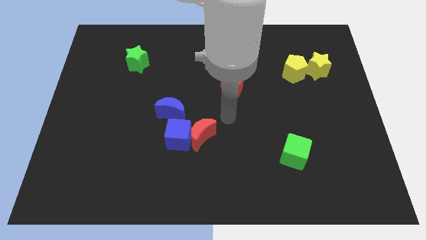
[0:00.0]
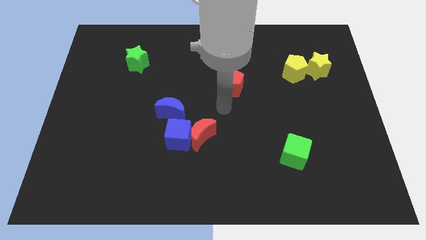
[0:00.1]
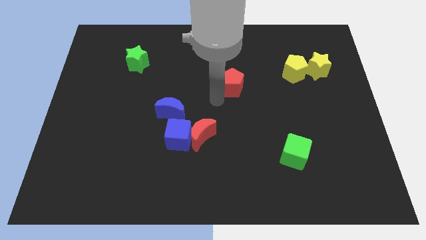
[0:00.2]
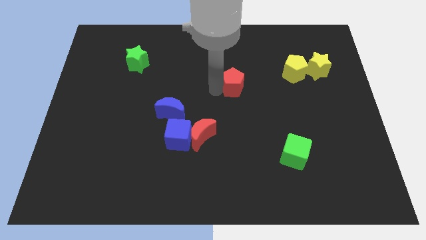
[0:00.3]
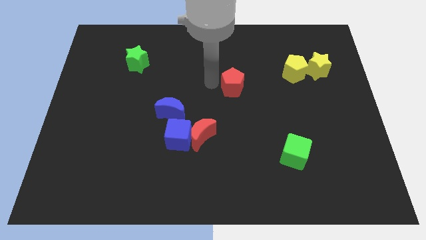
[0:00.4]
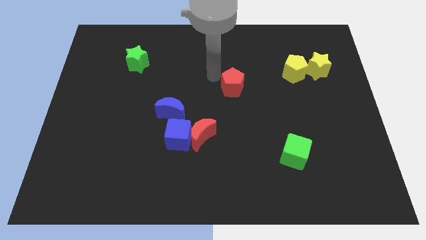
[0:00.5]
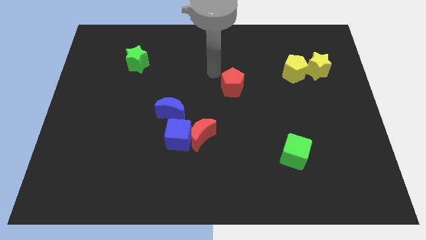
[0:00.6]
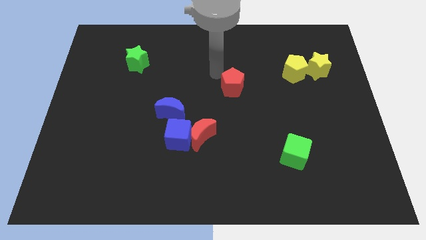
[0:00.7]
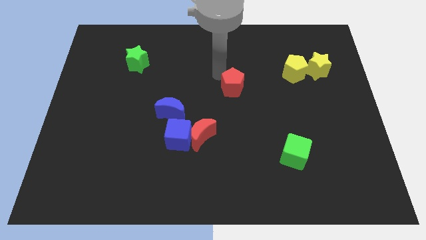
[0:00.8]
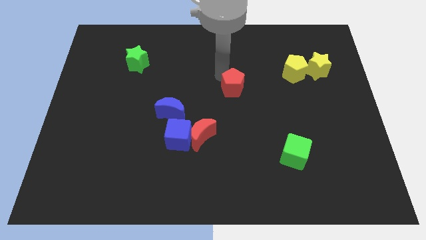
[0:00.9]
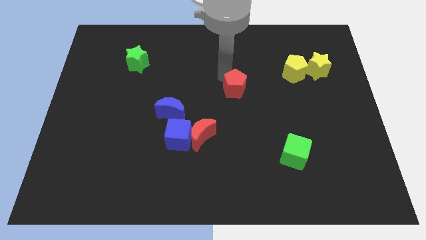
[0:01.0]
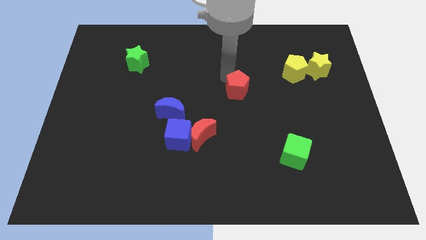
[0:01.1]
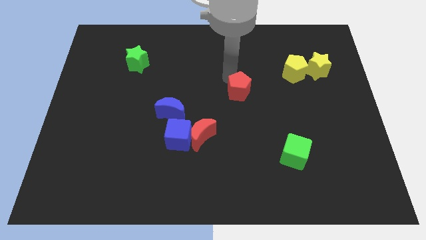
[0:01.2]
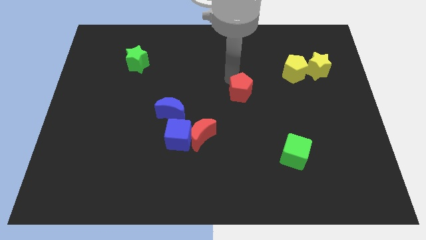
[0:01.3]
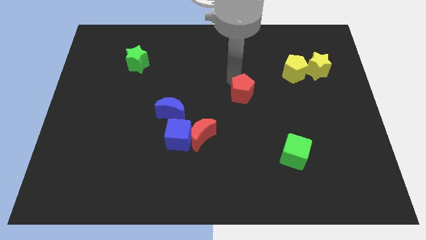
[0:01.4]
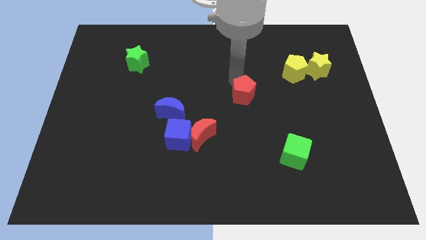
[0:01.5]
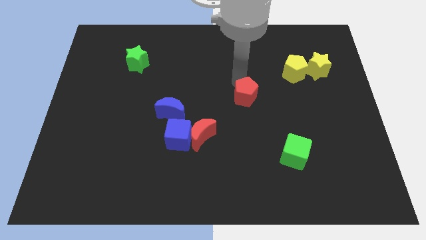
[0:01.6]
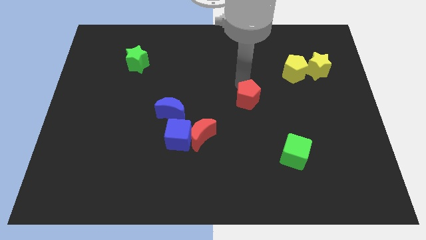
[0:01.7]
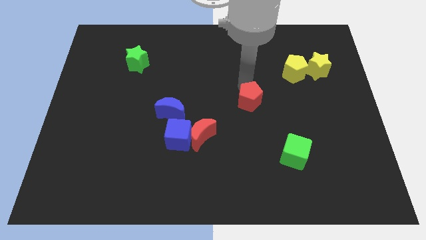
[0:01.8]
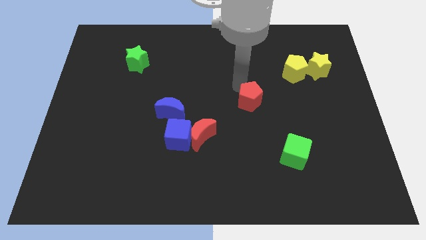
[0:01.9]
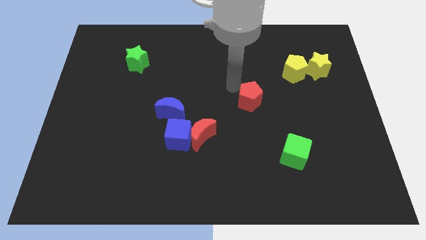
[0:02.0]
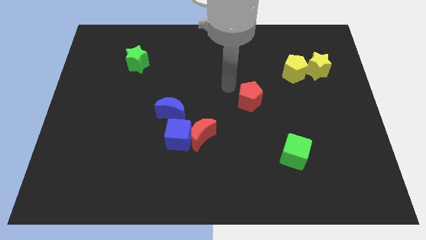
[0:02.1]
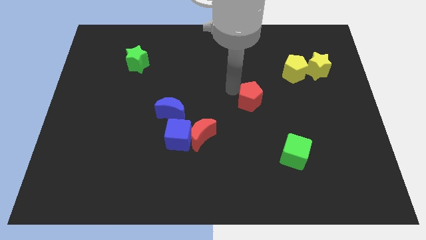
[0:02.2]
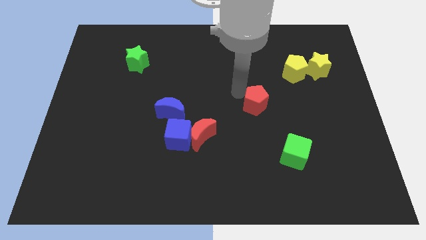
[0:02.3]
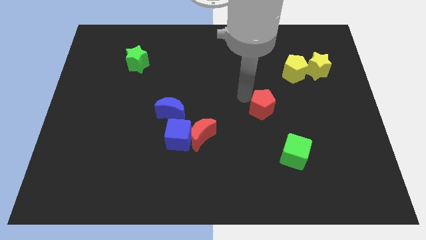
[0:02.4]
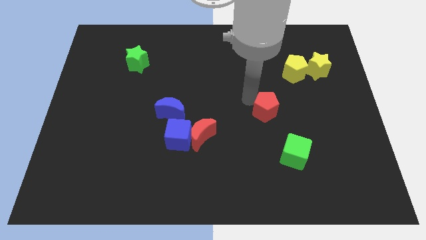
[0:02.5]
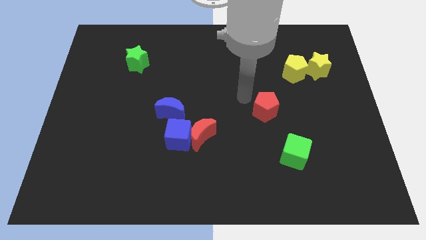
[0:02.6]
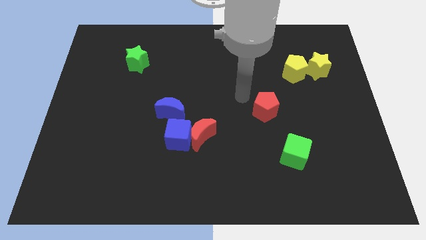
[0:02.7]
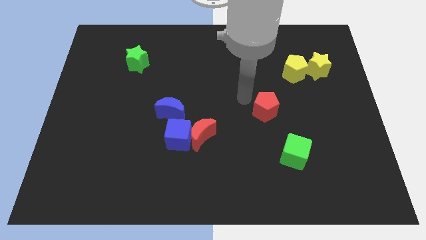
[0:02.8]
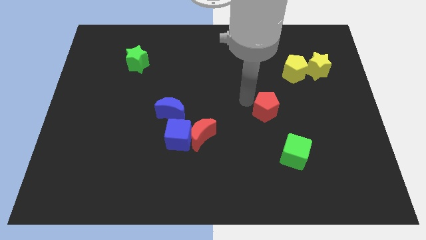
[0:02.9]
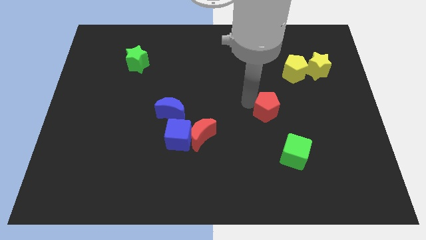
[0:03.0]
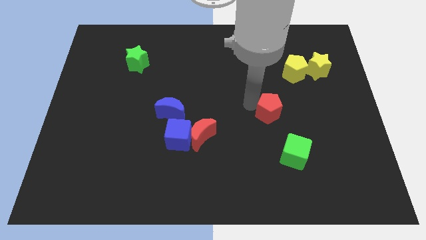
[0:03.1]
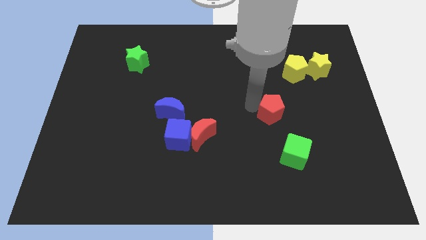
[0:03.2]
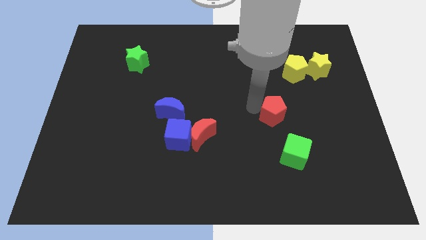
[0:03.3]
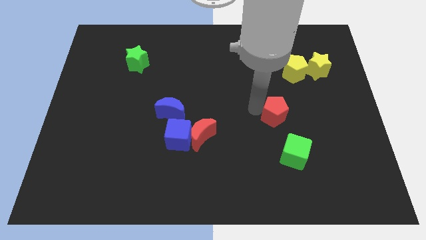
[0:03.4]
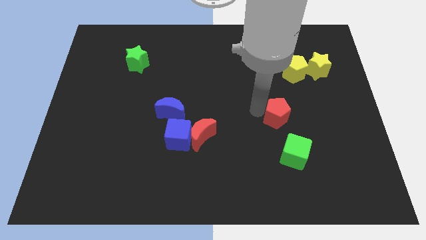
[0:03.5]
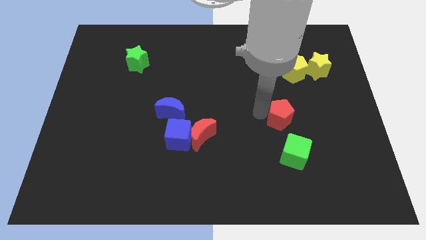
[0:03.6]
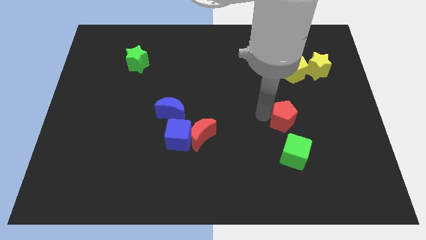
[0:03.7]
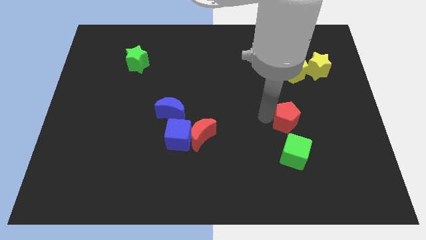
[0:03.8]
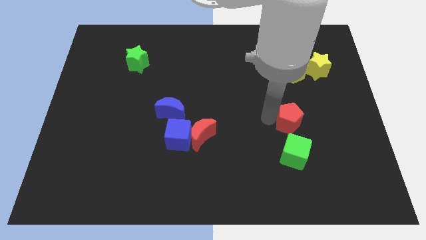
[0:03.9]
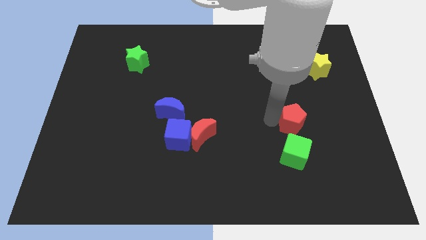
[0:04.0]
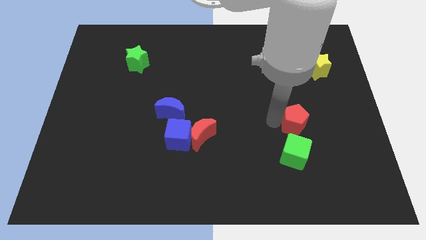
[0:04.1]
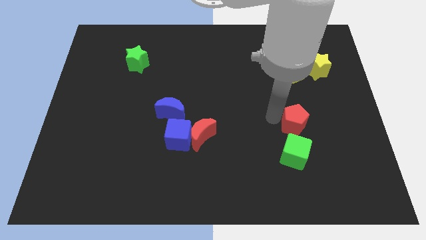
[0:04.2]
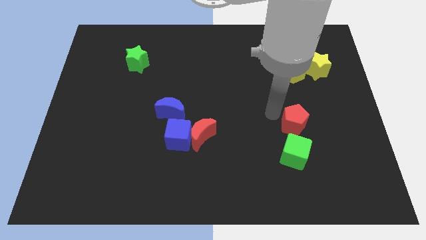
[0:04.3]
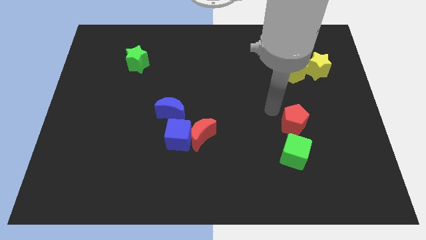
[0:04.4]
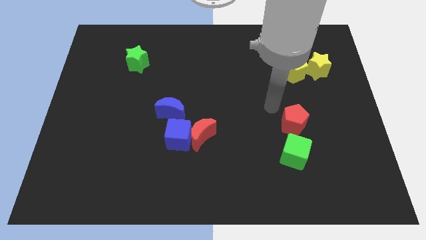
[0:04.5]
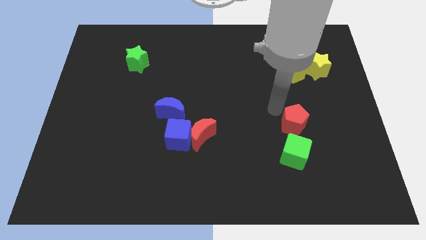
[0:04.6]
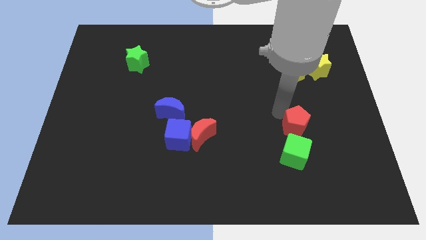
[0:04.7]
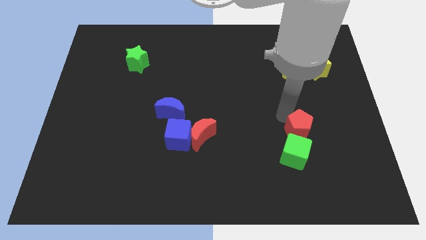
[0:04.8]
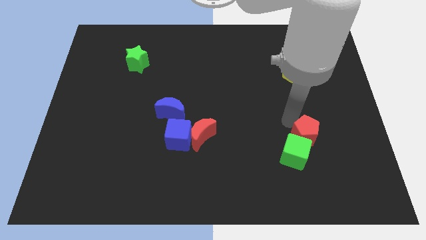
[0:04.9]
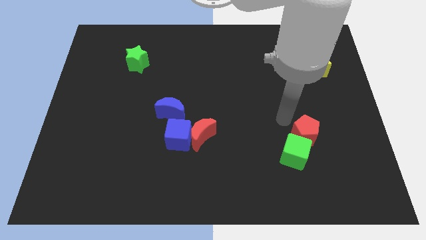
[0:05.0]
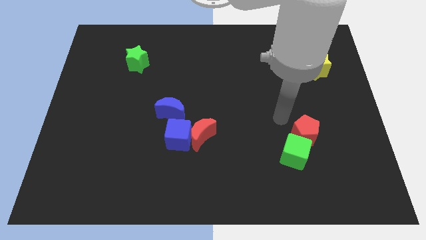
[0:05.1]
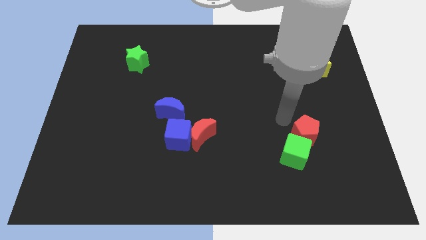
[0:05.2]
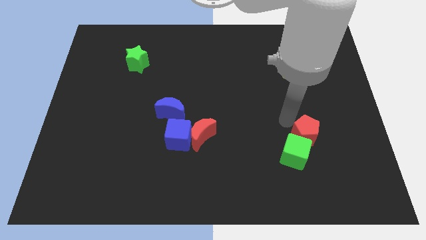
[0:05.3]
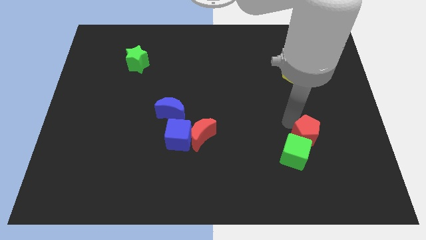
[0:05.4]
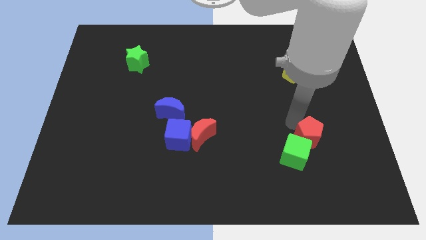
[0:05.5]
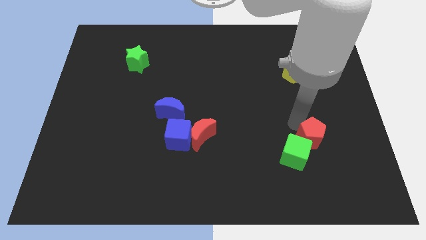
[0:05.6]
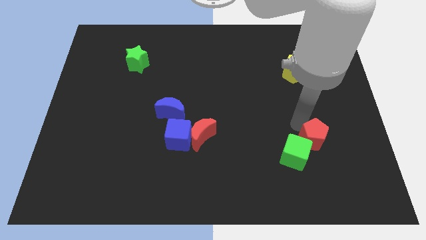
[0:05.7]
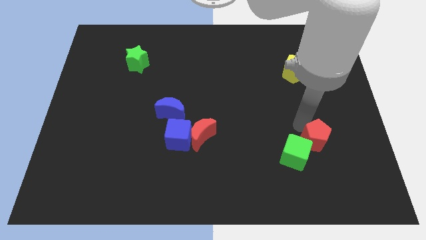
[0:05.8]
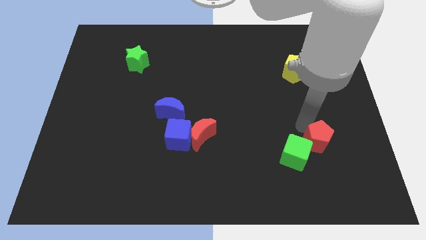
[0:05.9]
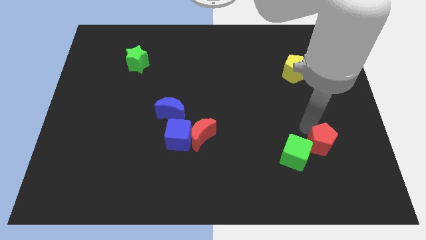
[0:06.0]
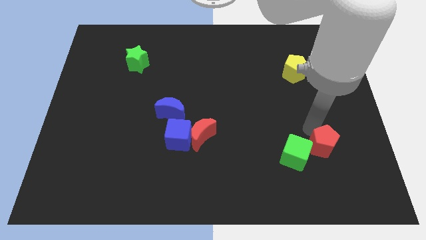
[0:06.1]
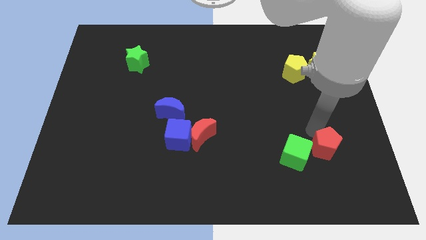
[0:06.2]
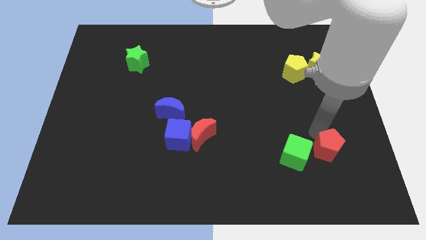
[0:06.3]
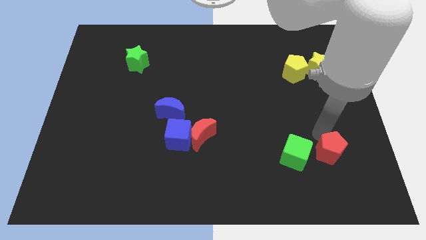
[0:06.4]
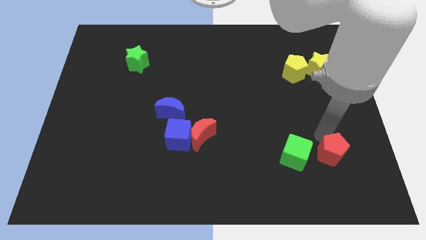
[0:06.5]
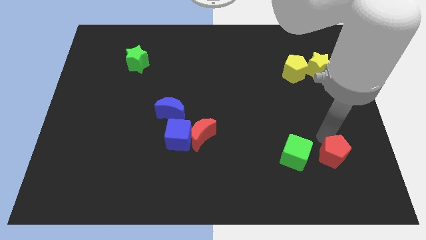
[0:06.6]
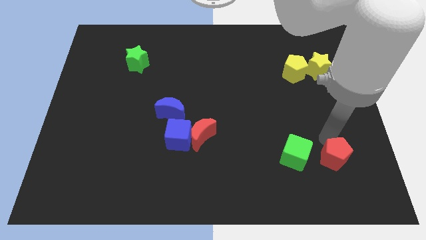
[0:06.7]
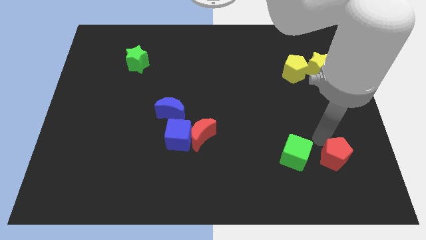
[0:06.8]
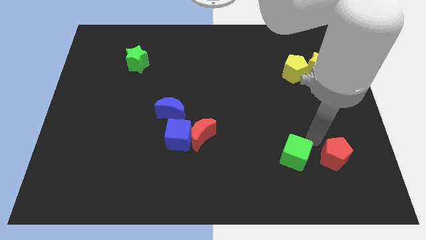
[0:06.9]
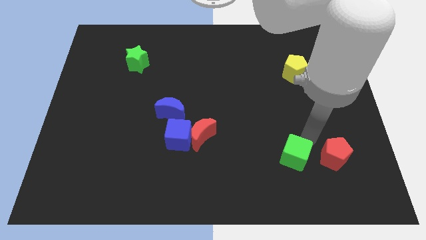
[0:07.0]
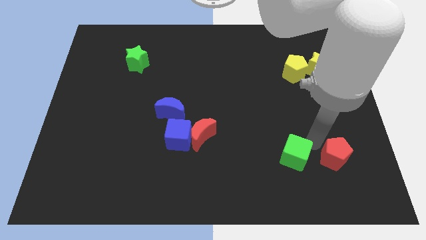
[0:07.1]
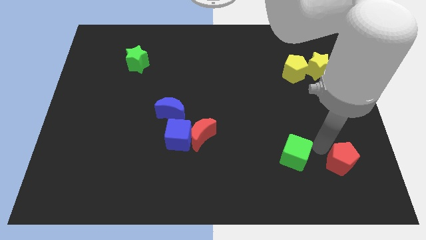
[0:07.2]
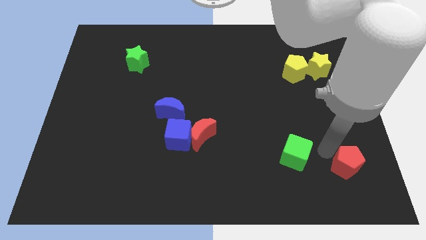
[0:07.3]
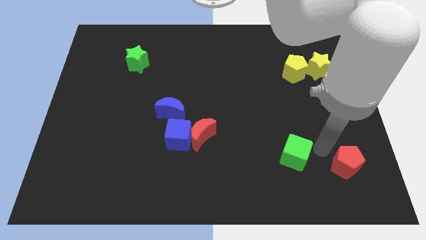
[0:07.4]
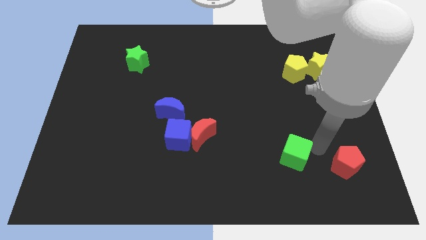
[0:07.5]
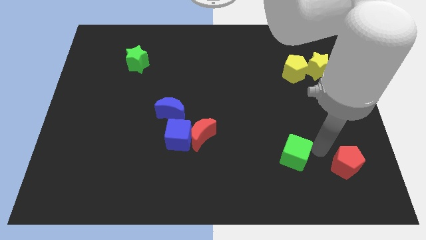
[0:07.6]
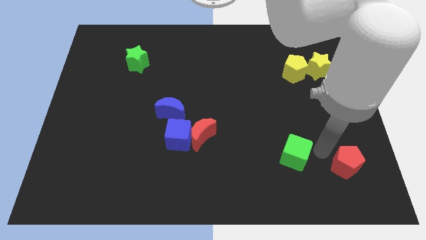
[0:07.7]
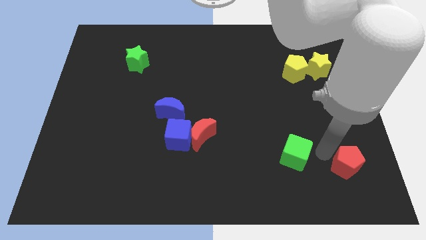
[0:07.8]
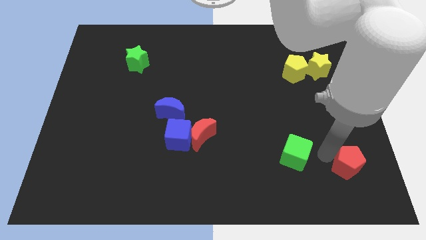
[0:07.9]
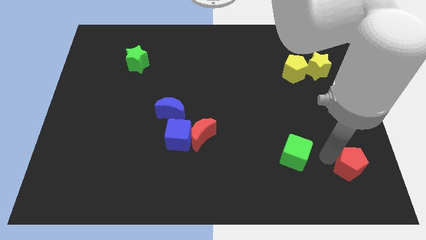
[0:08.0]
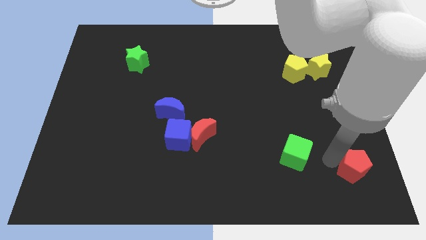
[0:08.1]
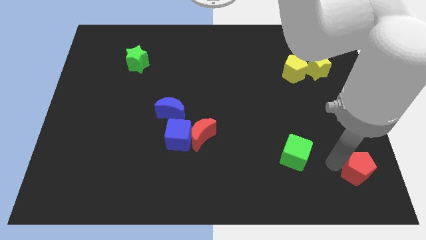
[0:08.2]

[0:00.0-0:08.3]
move the red pentagon to the bottom right corner
